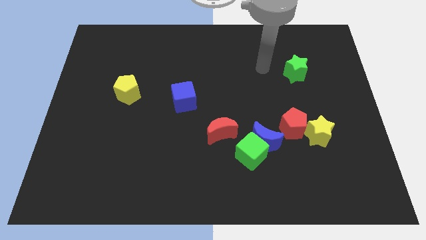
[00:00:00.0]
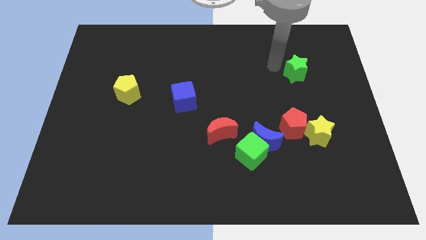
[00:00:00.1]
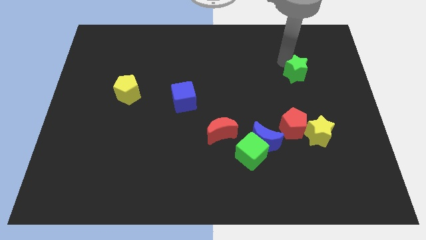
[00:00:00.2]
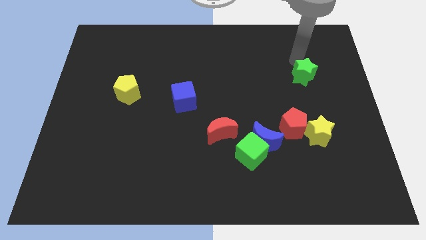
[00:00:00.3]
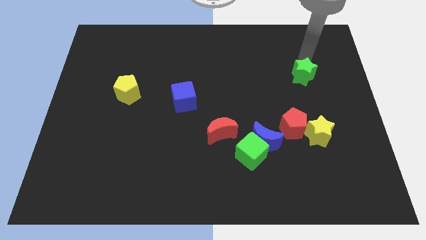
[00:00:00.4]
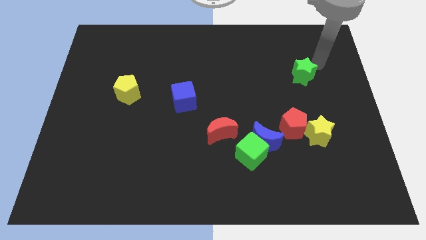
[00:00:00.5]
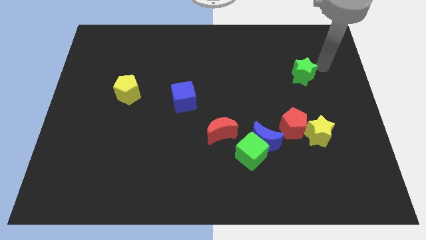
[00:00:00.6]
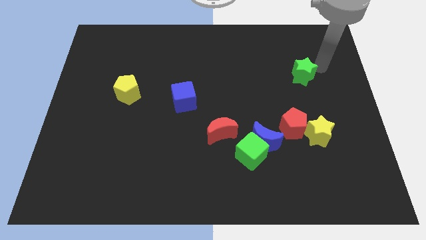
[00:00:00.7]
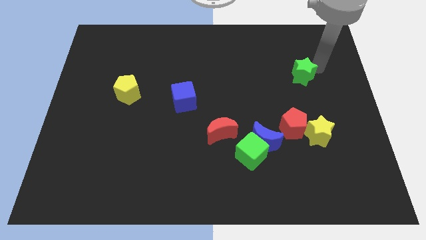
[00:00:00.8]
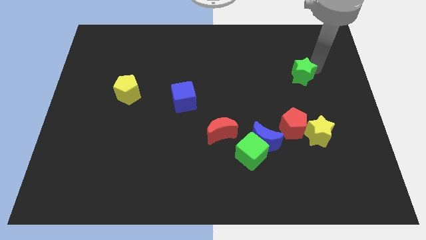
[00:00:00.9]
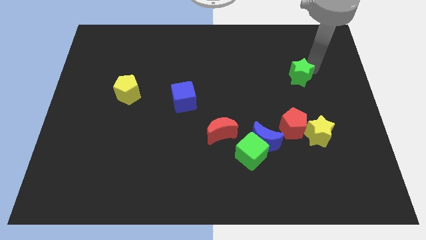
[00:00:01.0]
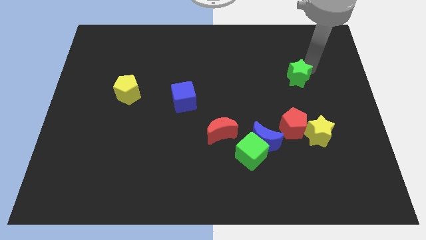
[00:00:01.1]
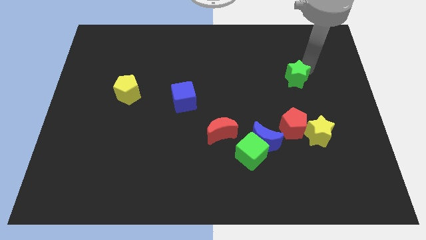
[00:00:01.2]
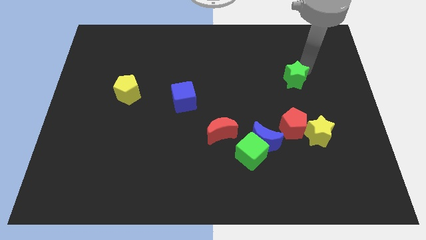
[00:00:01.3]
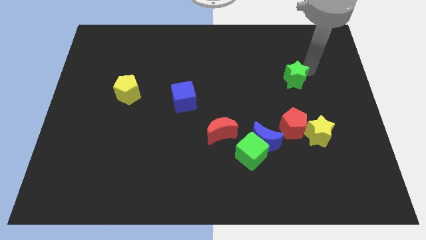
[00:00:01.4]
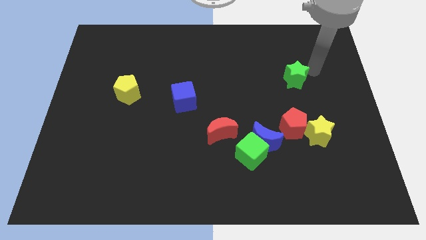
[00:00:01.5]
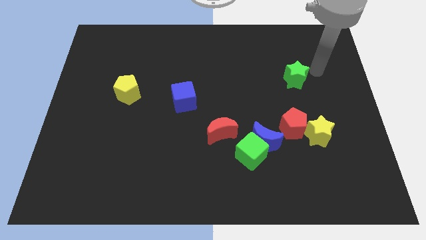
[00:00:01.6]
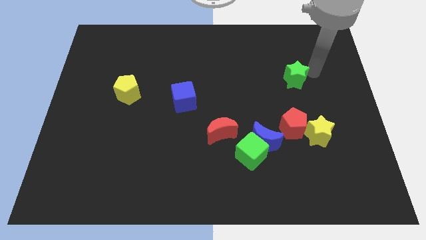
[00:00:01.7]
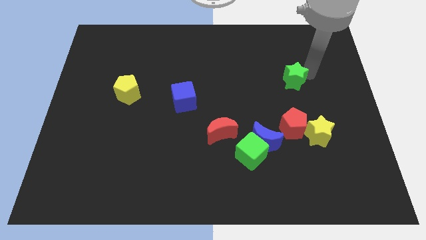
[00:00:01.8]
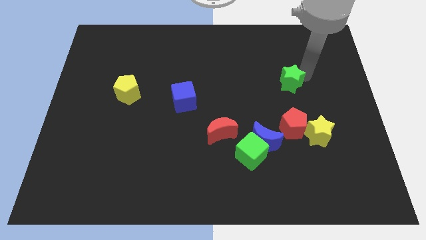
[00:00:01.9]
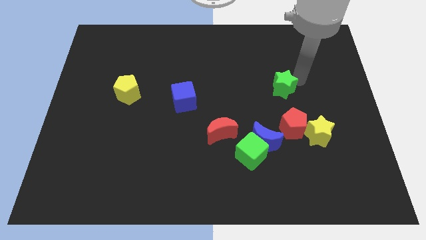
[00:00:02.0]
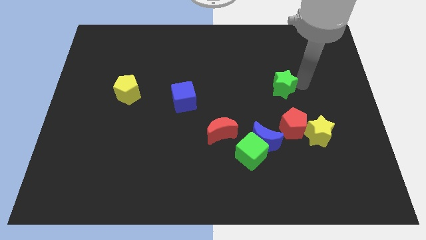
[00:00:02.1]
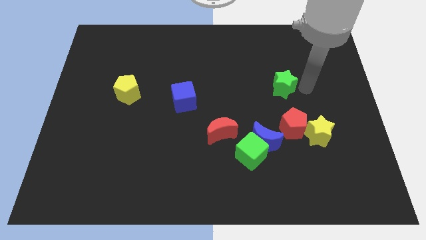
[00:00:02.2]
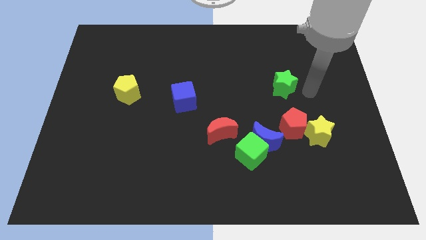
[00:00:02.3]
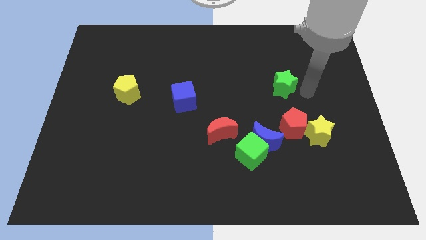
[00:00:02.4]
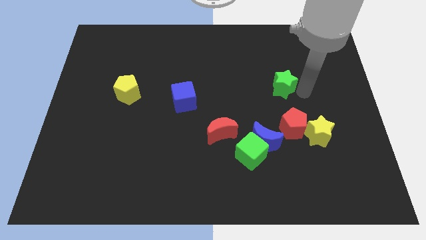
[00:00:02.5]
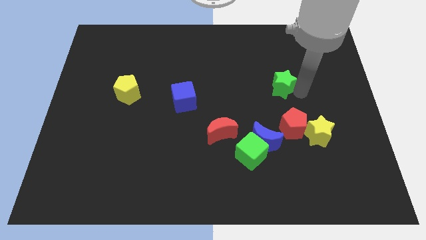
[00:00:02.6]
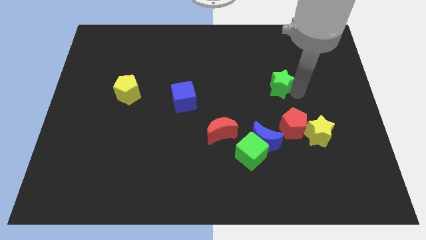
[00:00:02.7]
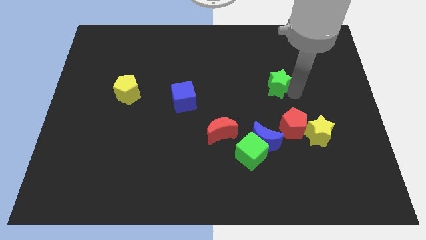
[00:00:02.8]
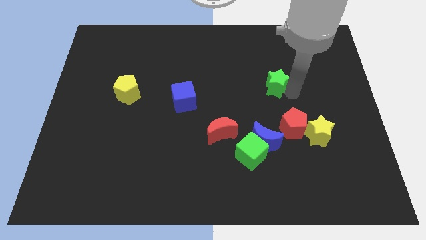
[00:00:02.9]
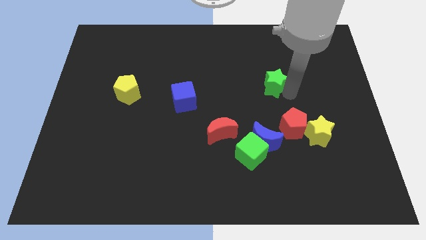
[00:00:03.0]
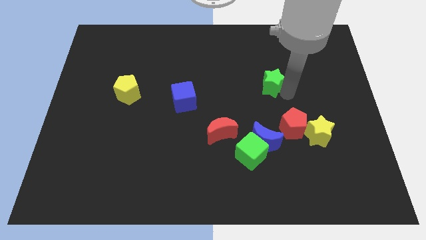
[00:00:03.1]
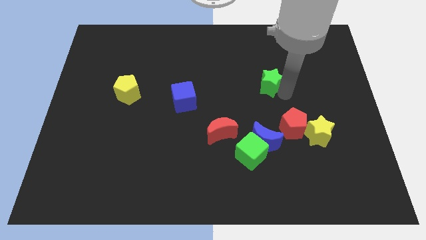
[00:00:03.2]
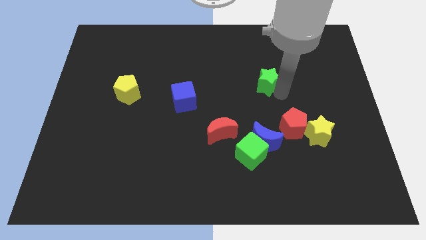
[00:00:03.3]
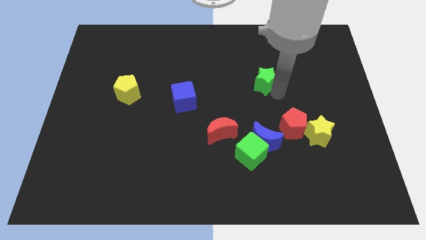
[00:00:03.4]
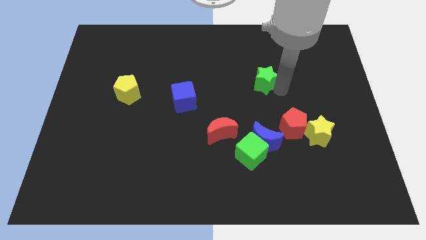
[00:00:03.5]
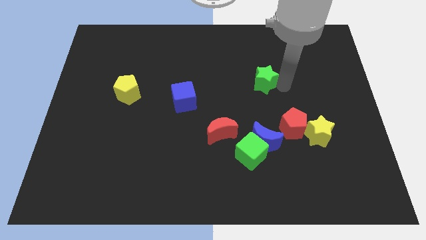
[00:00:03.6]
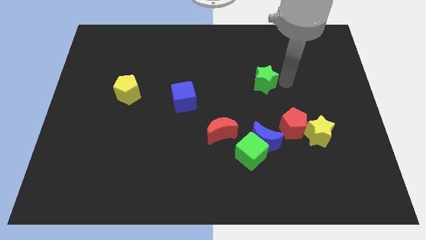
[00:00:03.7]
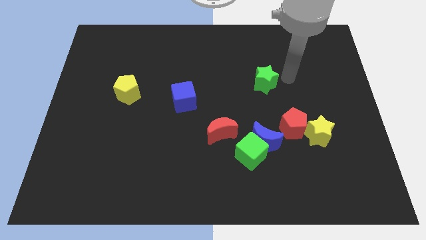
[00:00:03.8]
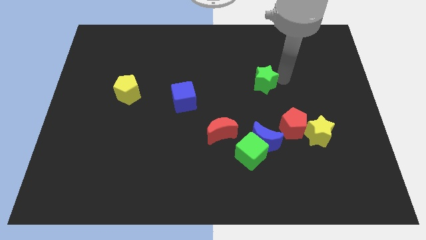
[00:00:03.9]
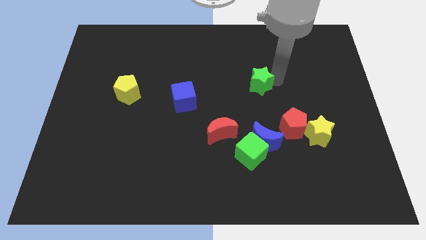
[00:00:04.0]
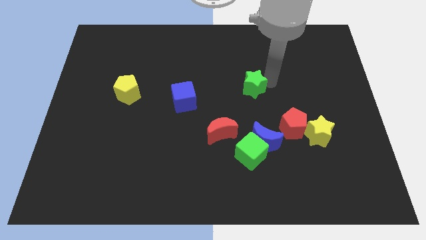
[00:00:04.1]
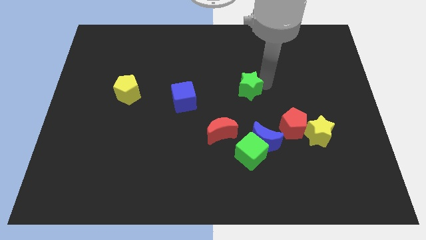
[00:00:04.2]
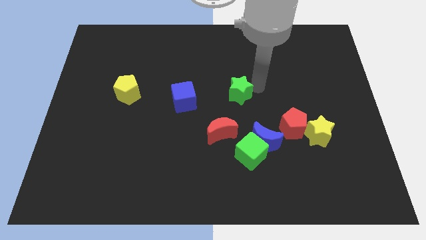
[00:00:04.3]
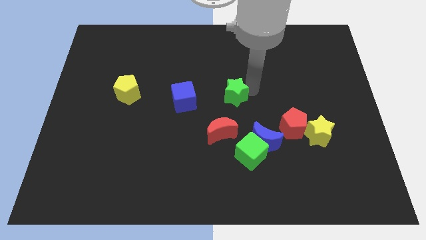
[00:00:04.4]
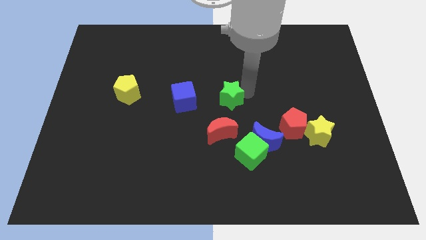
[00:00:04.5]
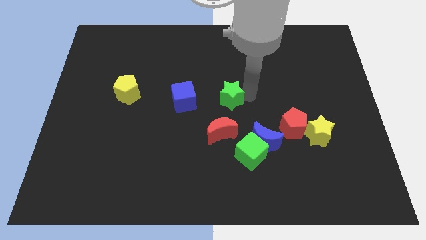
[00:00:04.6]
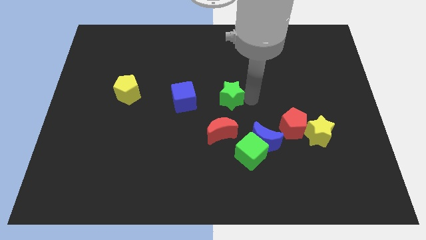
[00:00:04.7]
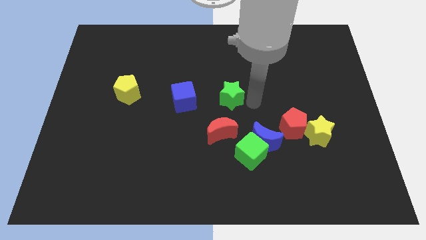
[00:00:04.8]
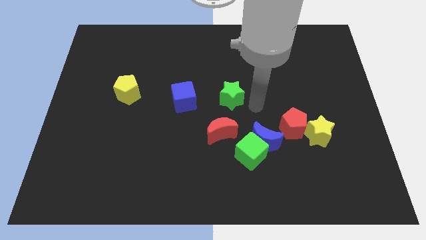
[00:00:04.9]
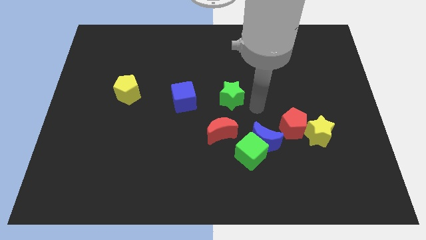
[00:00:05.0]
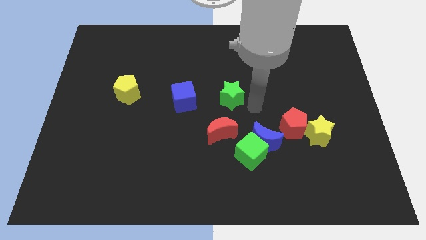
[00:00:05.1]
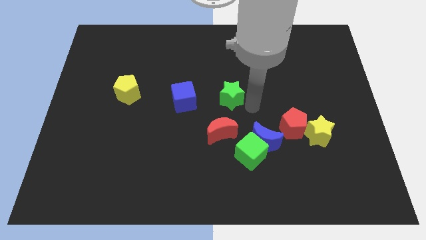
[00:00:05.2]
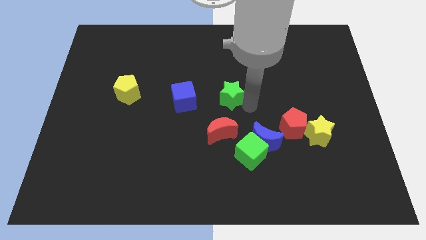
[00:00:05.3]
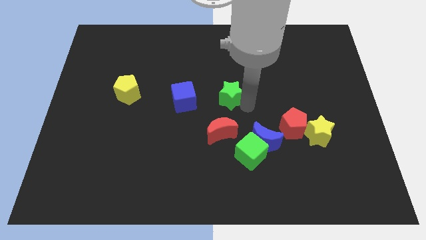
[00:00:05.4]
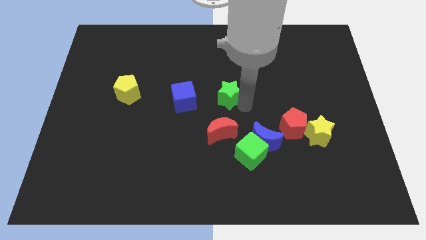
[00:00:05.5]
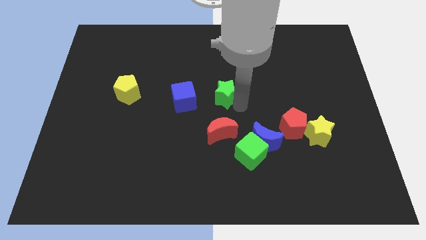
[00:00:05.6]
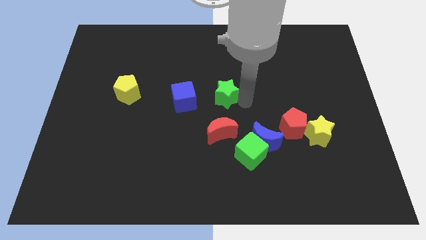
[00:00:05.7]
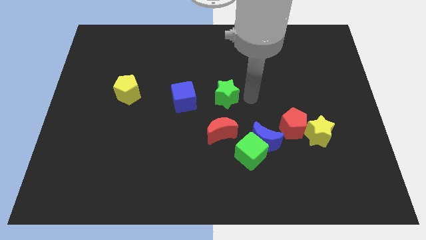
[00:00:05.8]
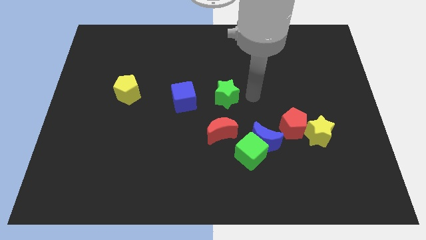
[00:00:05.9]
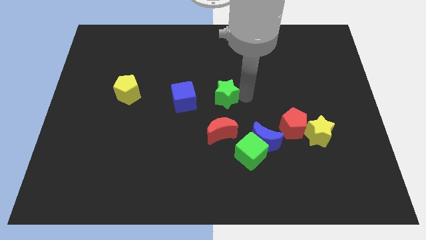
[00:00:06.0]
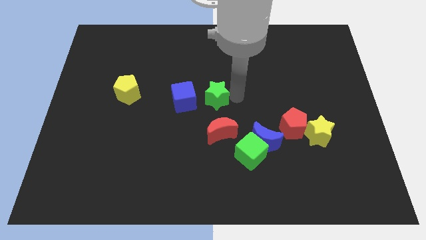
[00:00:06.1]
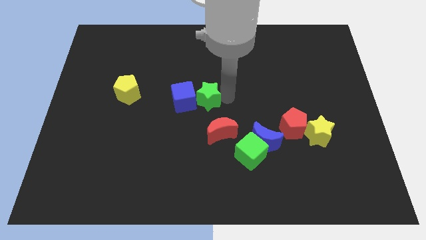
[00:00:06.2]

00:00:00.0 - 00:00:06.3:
push the green star towards the blue cube
